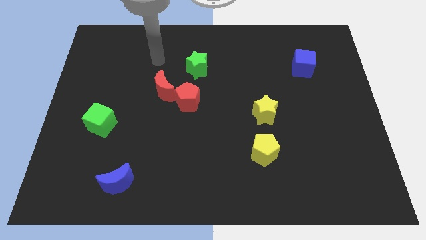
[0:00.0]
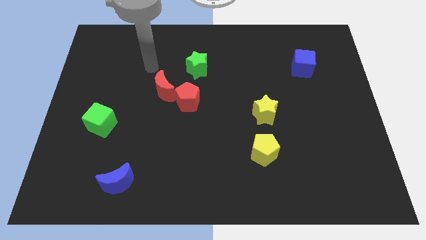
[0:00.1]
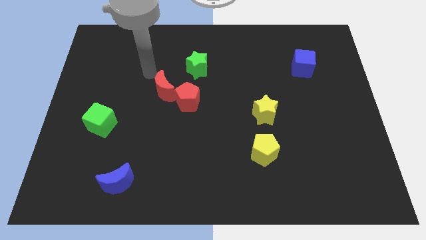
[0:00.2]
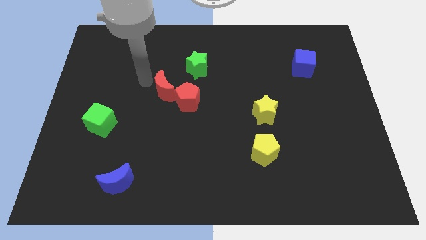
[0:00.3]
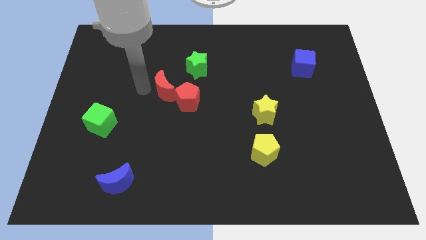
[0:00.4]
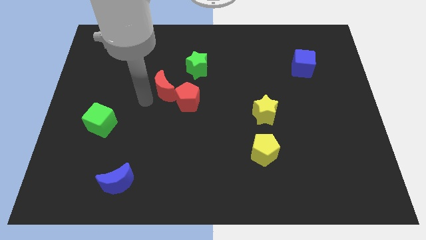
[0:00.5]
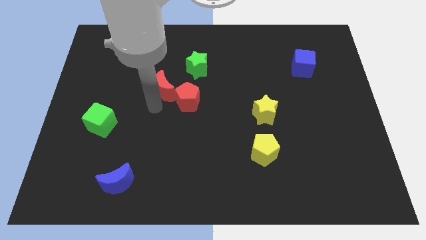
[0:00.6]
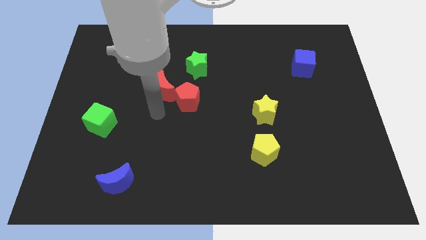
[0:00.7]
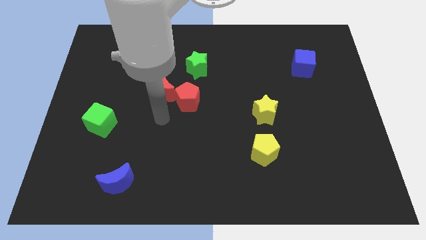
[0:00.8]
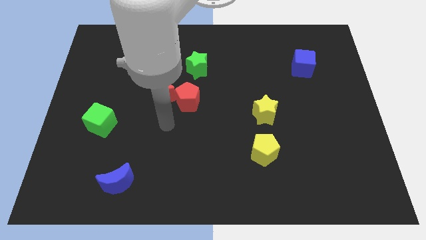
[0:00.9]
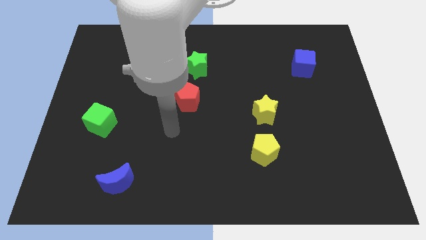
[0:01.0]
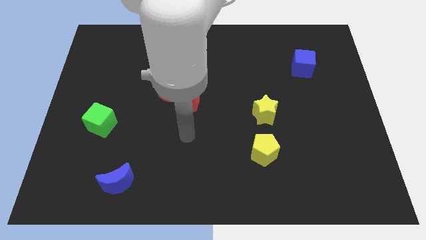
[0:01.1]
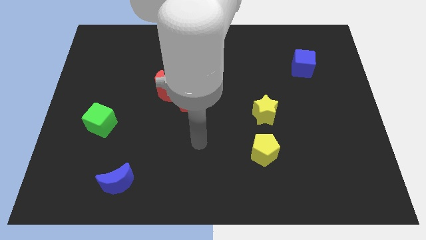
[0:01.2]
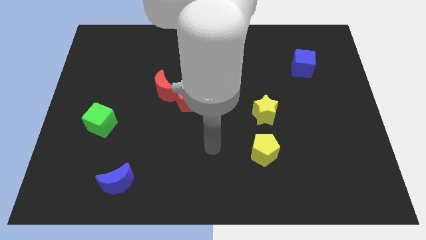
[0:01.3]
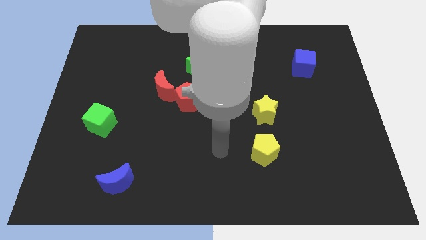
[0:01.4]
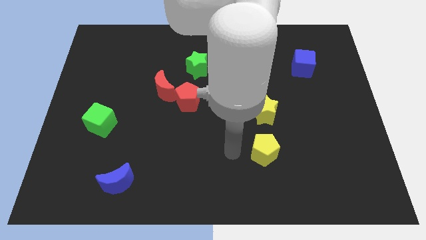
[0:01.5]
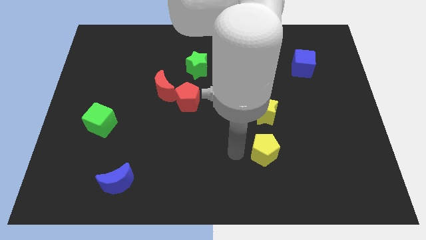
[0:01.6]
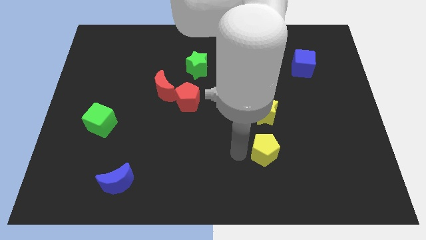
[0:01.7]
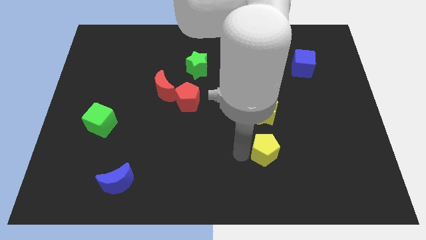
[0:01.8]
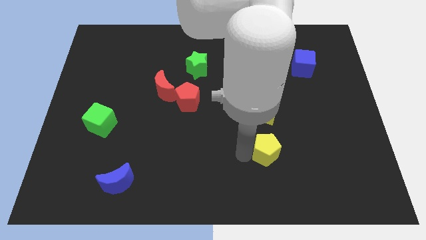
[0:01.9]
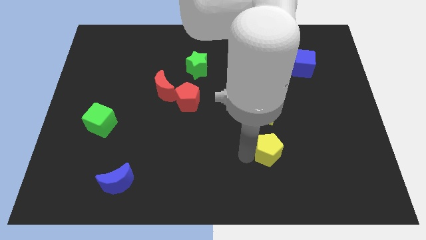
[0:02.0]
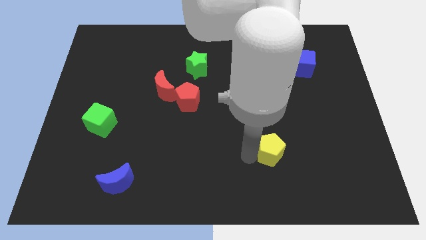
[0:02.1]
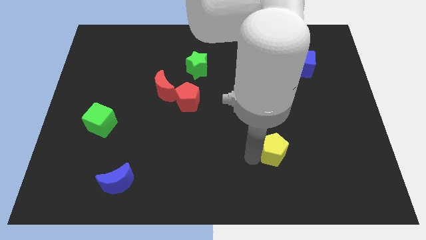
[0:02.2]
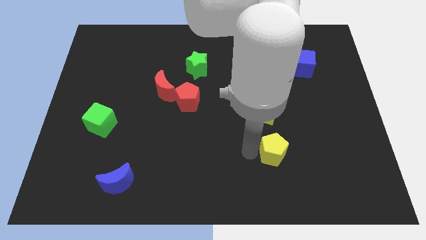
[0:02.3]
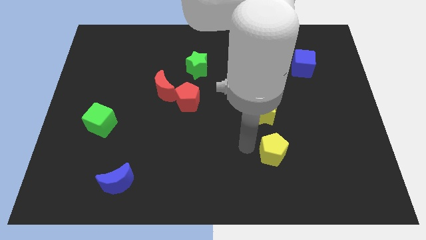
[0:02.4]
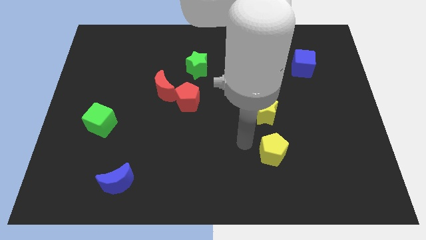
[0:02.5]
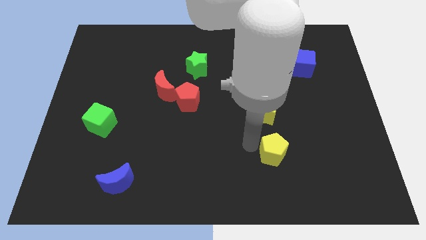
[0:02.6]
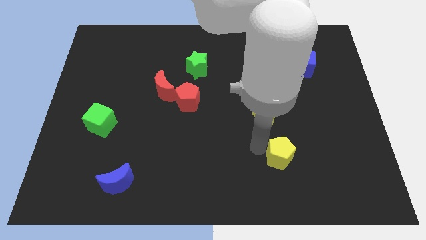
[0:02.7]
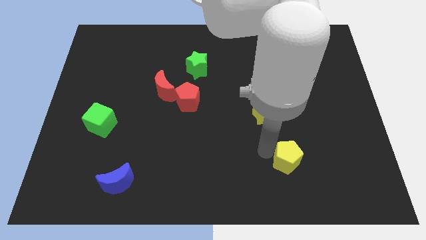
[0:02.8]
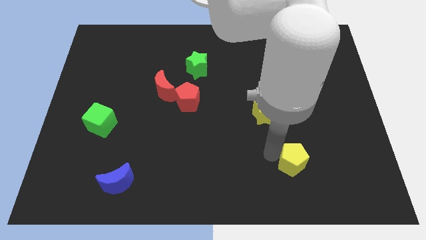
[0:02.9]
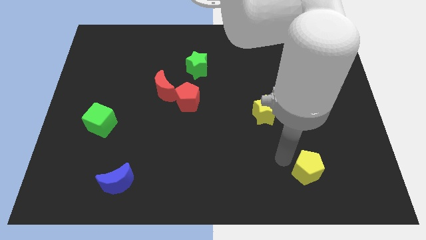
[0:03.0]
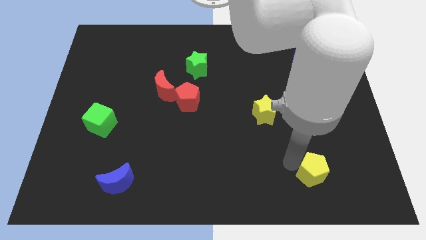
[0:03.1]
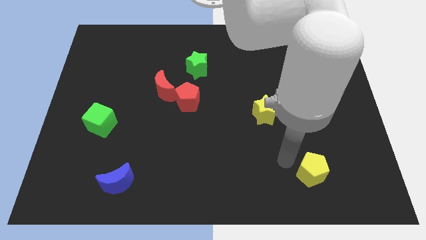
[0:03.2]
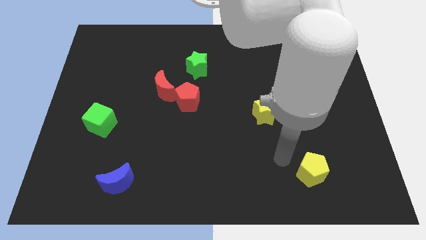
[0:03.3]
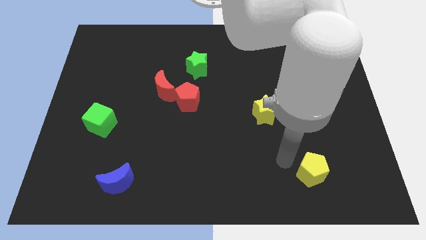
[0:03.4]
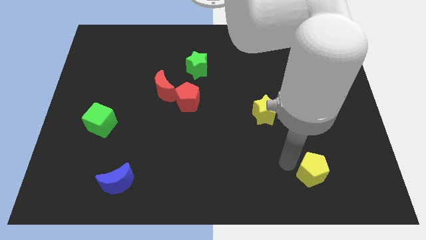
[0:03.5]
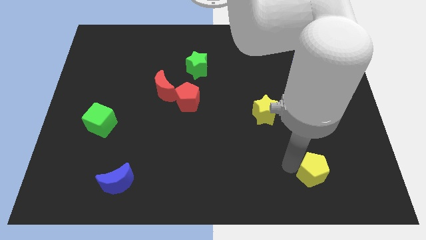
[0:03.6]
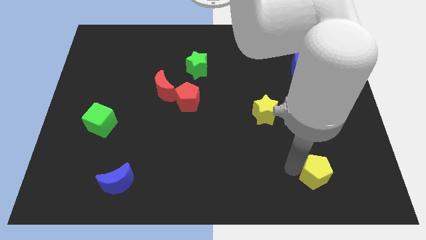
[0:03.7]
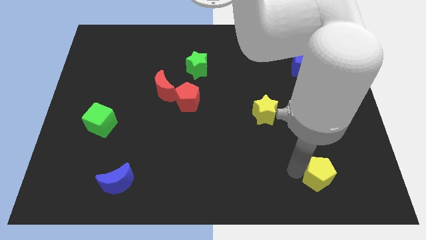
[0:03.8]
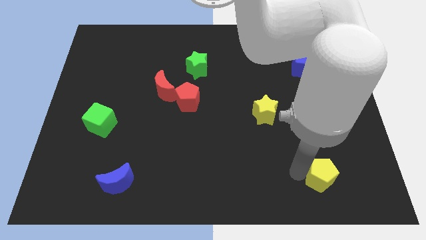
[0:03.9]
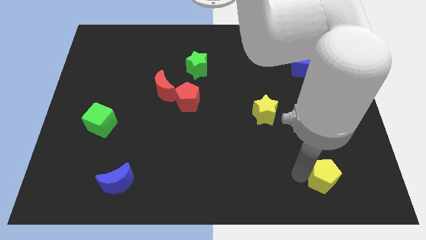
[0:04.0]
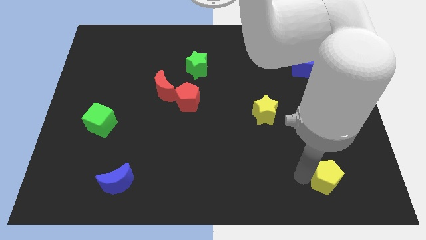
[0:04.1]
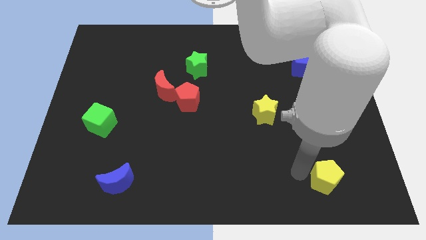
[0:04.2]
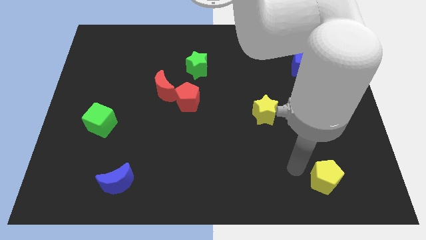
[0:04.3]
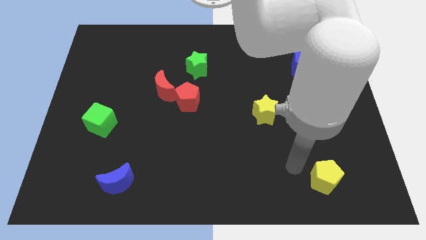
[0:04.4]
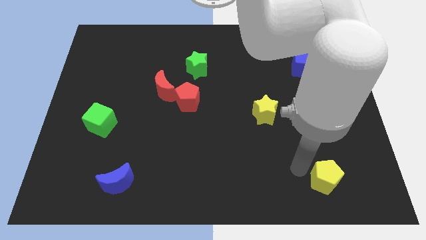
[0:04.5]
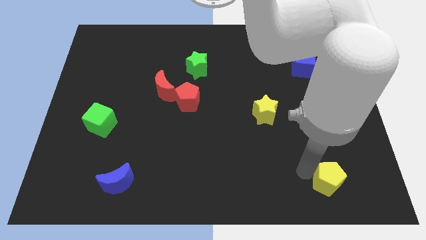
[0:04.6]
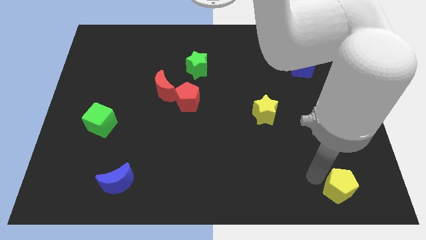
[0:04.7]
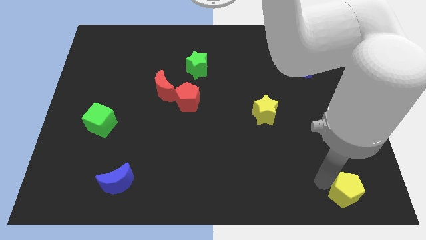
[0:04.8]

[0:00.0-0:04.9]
push the yellow pentagon to the bottom right

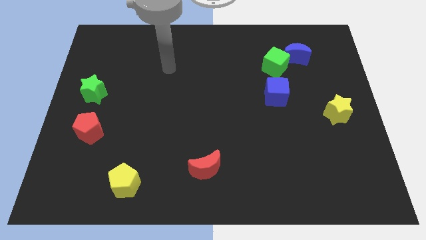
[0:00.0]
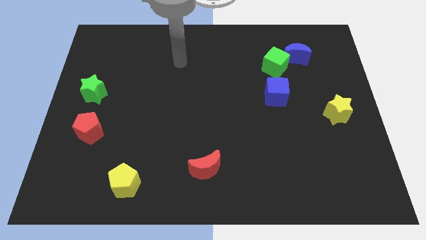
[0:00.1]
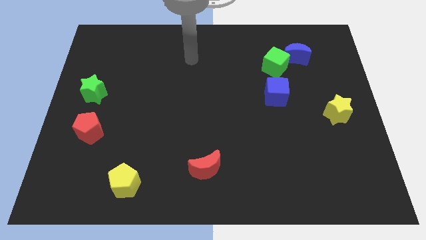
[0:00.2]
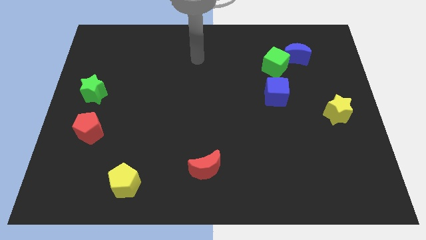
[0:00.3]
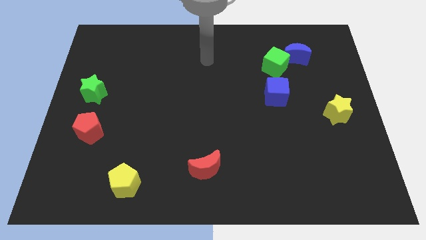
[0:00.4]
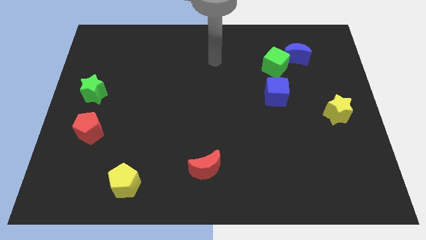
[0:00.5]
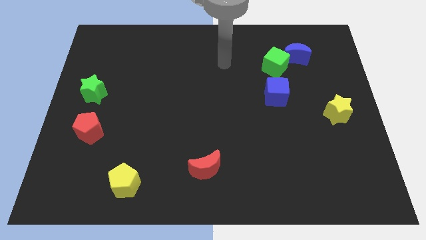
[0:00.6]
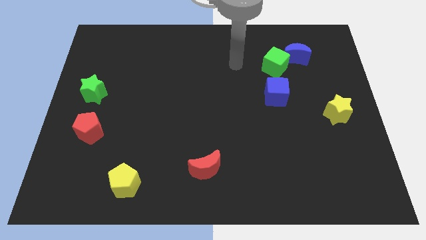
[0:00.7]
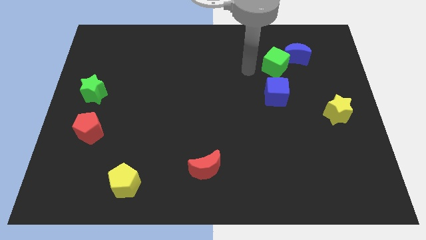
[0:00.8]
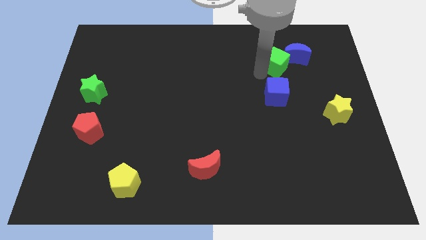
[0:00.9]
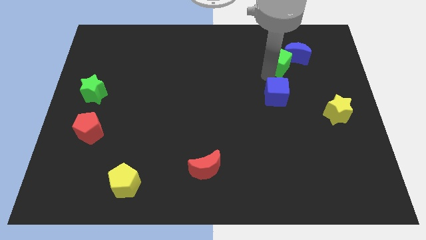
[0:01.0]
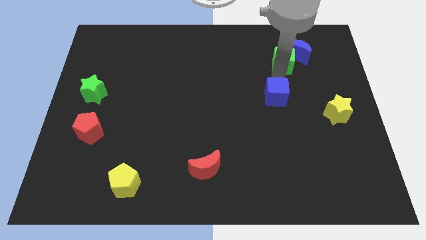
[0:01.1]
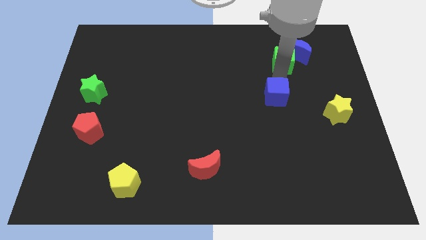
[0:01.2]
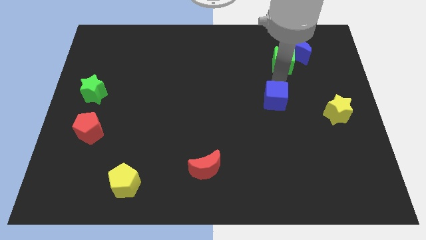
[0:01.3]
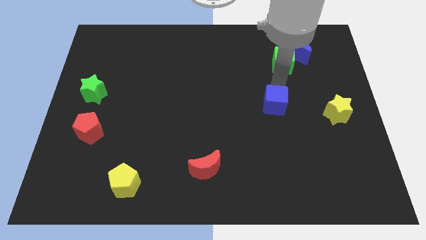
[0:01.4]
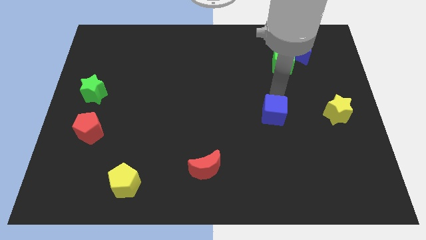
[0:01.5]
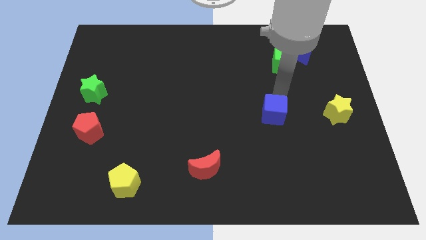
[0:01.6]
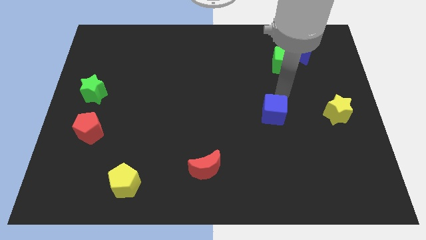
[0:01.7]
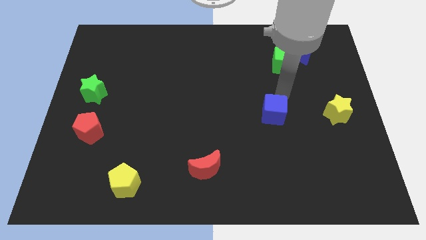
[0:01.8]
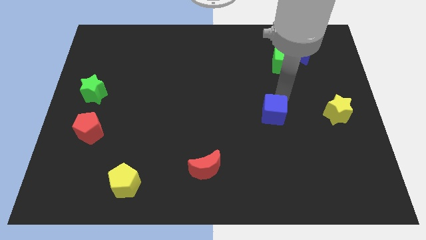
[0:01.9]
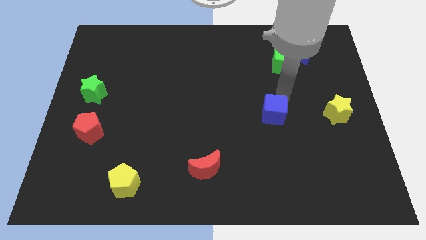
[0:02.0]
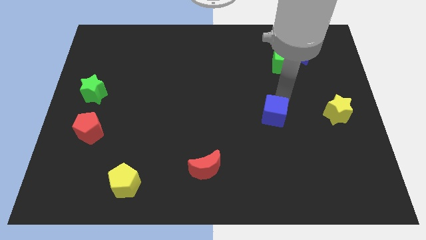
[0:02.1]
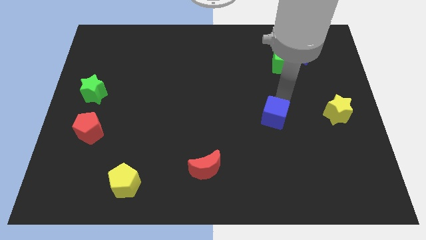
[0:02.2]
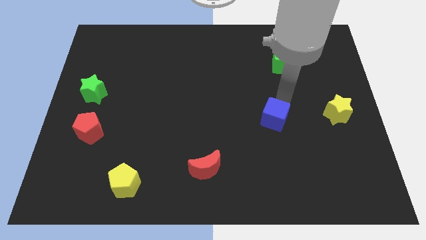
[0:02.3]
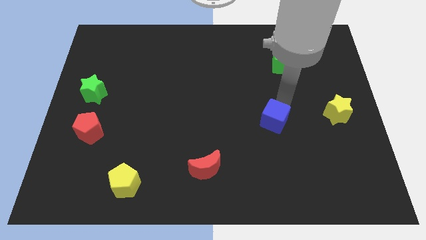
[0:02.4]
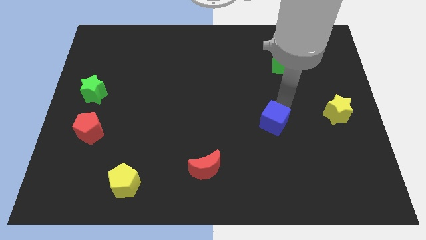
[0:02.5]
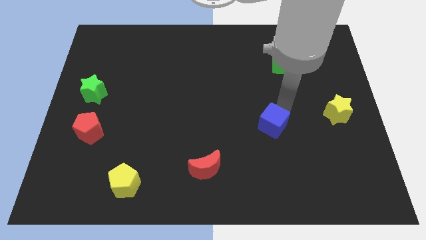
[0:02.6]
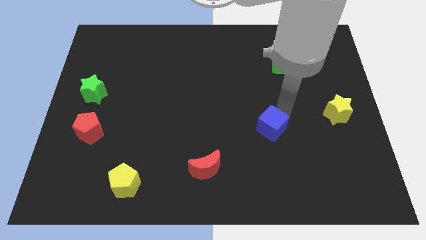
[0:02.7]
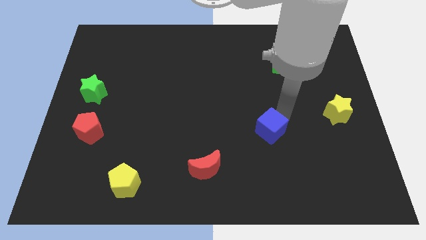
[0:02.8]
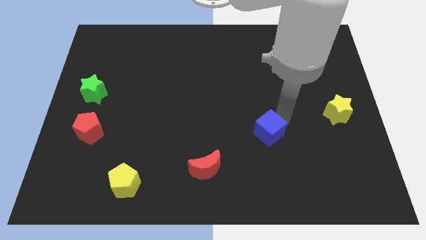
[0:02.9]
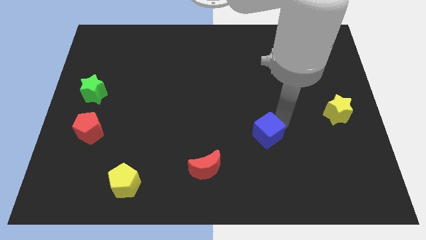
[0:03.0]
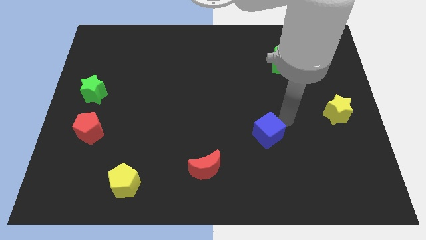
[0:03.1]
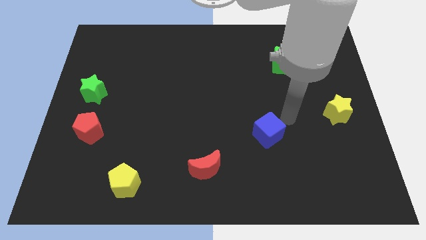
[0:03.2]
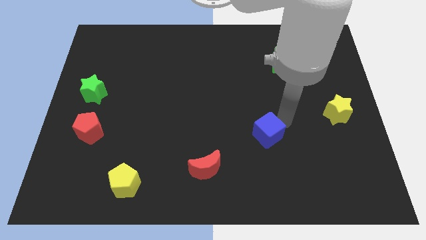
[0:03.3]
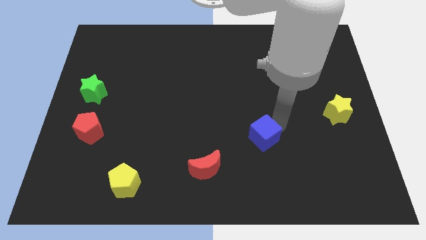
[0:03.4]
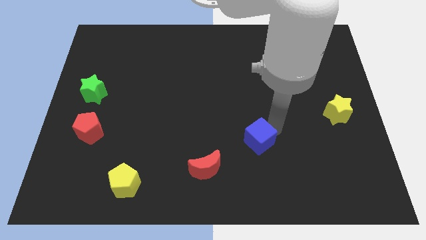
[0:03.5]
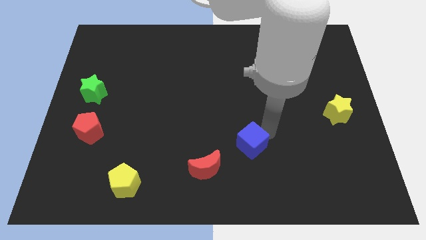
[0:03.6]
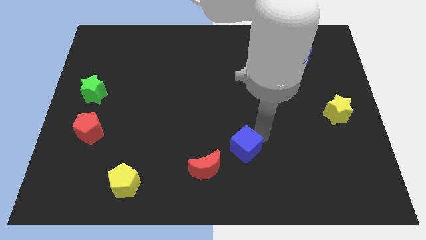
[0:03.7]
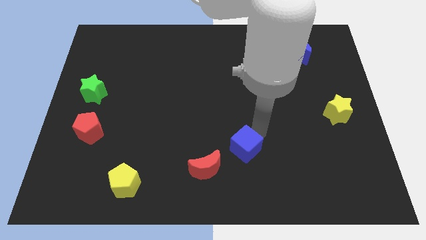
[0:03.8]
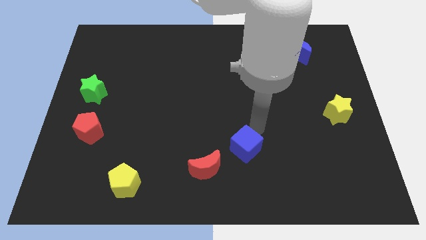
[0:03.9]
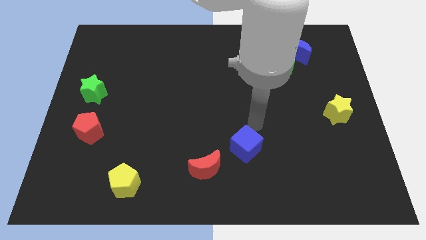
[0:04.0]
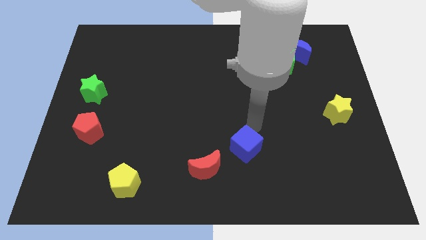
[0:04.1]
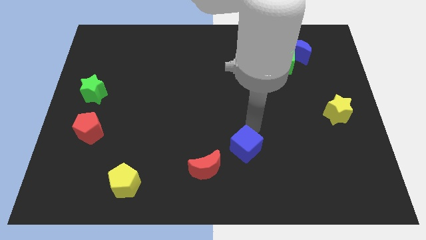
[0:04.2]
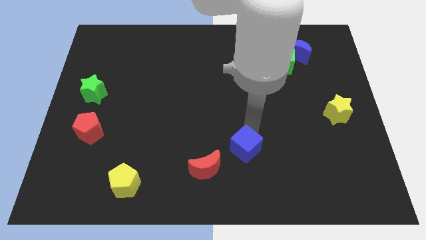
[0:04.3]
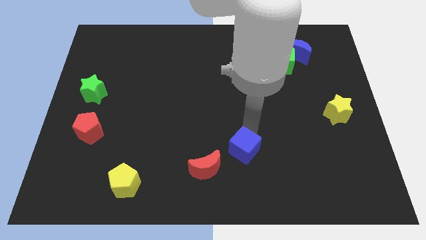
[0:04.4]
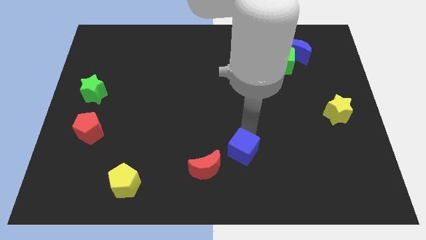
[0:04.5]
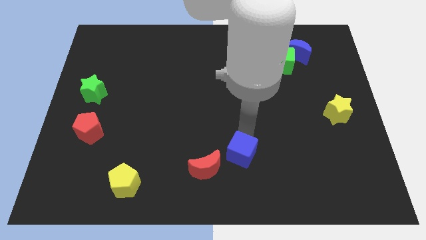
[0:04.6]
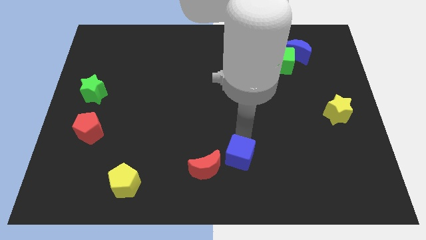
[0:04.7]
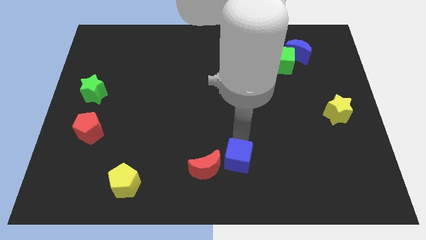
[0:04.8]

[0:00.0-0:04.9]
put the blue cube to the bottom
